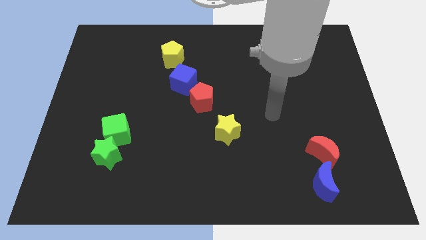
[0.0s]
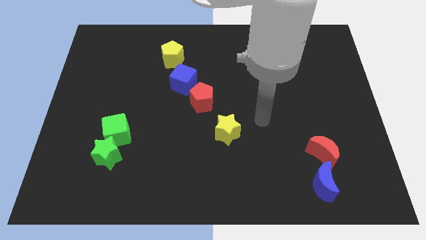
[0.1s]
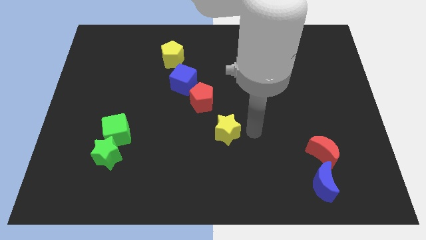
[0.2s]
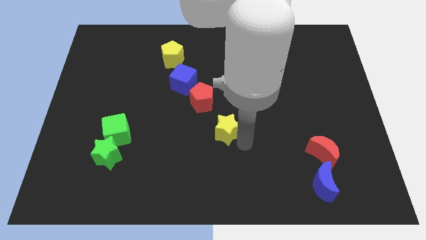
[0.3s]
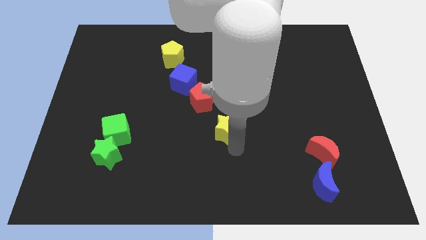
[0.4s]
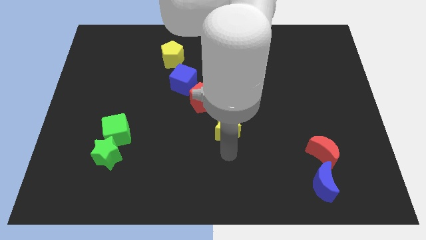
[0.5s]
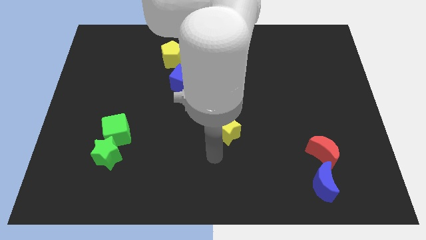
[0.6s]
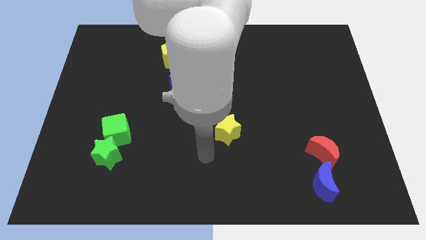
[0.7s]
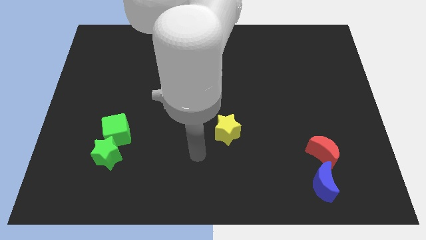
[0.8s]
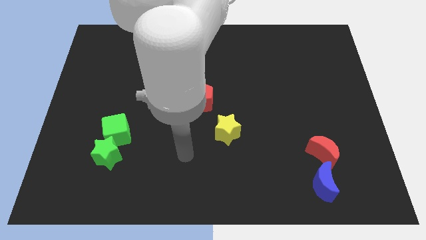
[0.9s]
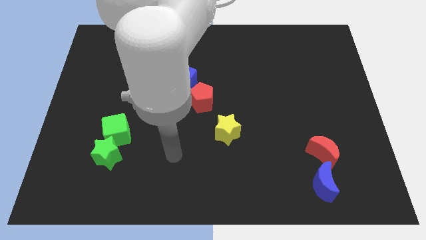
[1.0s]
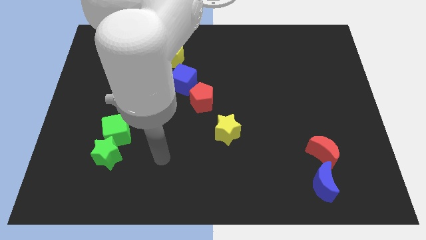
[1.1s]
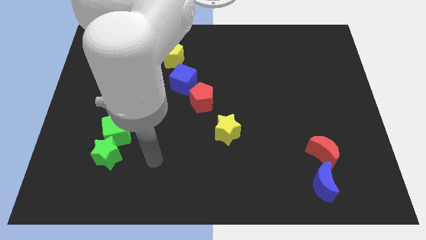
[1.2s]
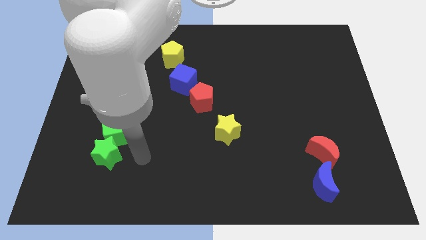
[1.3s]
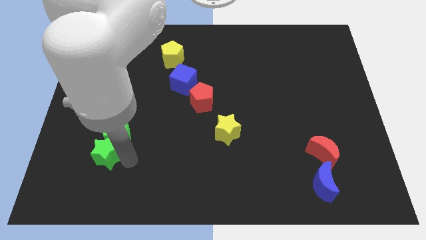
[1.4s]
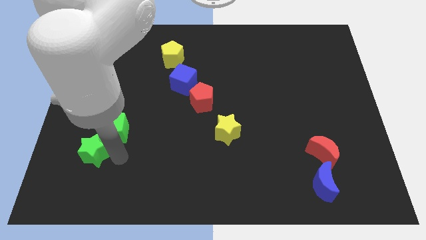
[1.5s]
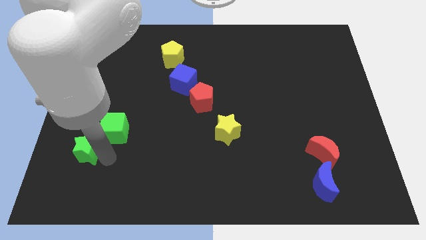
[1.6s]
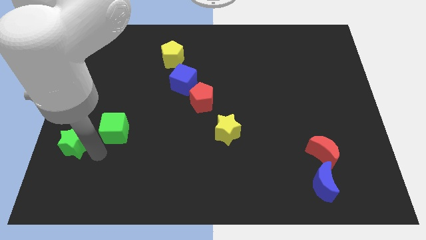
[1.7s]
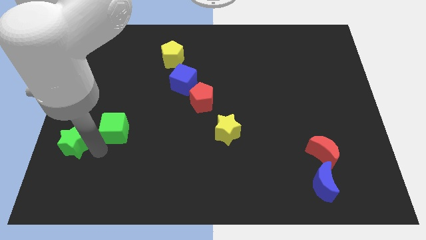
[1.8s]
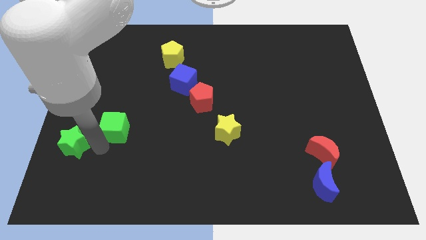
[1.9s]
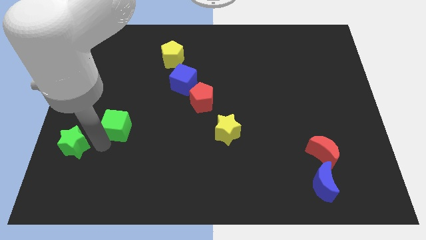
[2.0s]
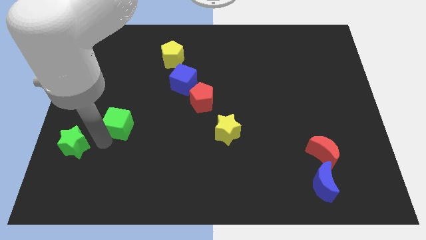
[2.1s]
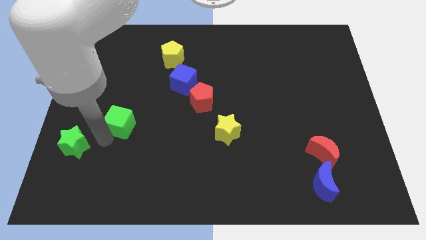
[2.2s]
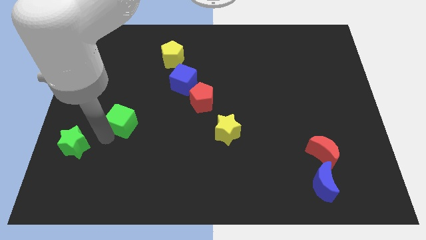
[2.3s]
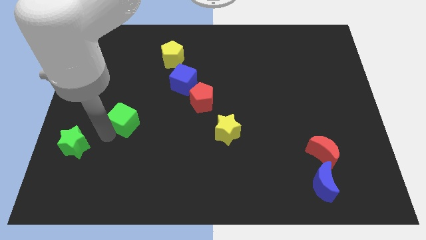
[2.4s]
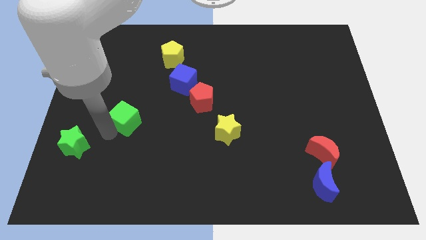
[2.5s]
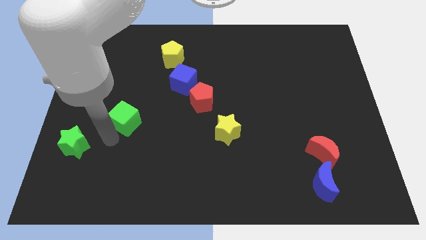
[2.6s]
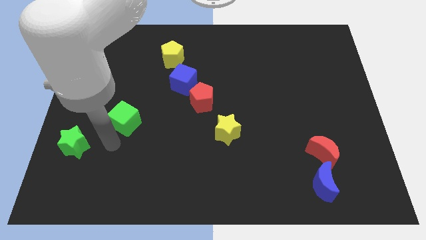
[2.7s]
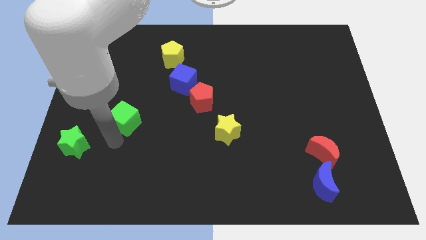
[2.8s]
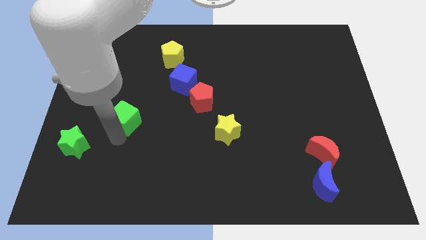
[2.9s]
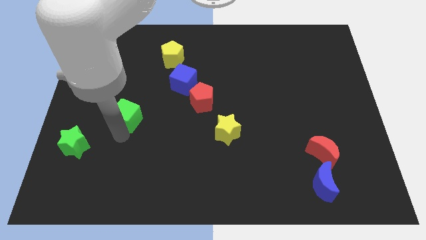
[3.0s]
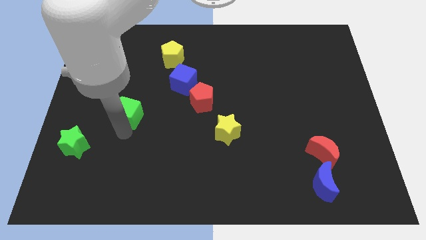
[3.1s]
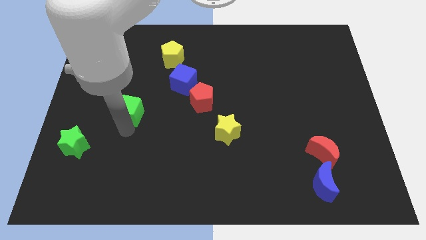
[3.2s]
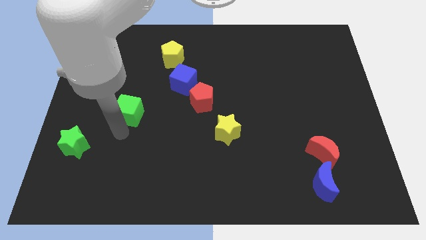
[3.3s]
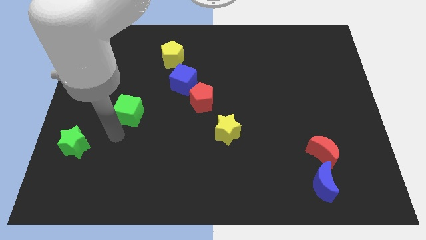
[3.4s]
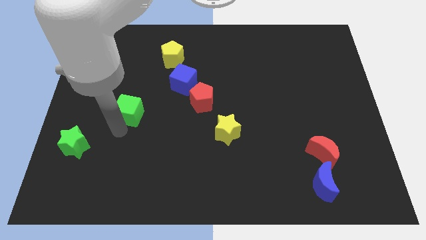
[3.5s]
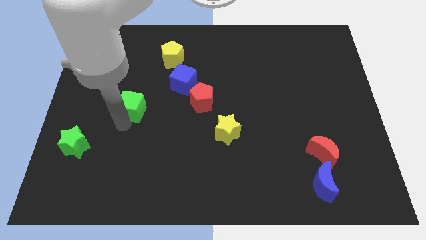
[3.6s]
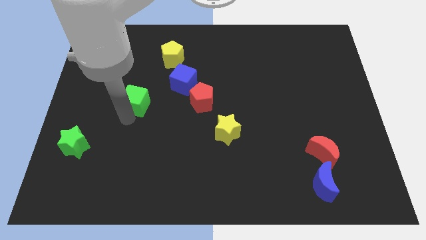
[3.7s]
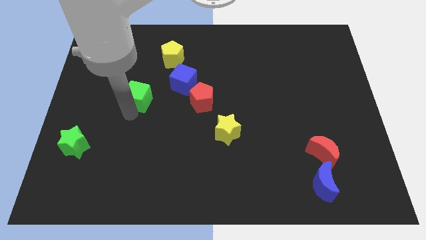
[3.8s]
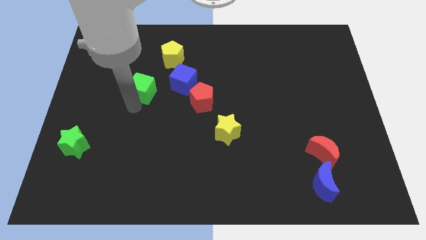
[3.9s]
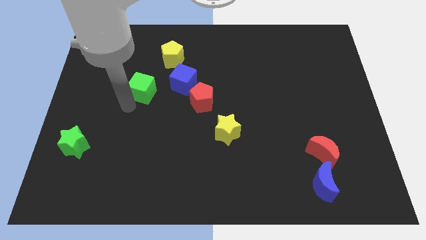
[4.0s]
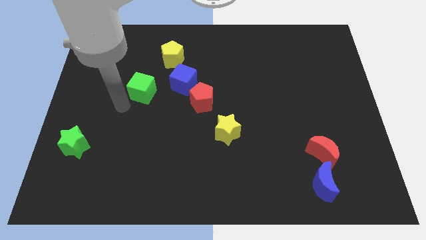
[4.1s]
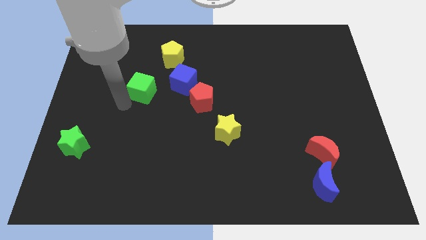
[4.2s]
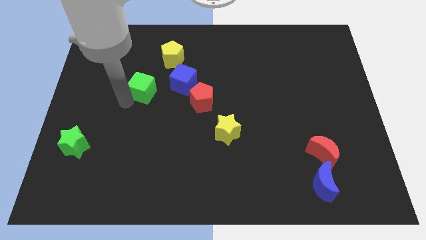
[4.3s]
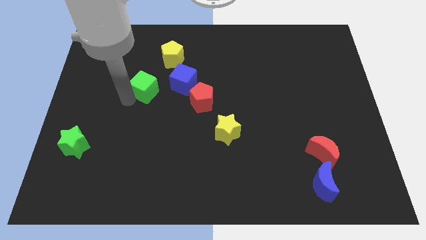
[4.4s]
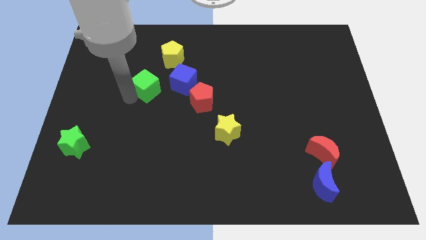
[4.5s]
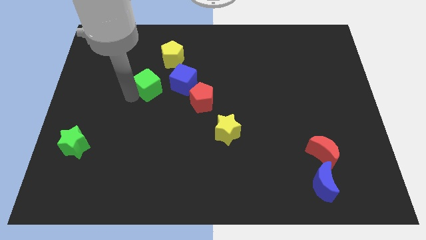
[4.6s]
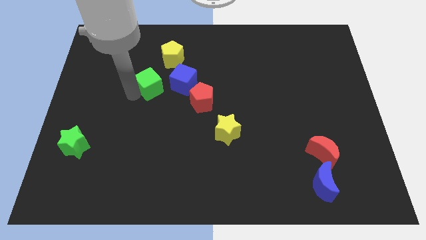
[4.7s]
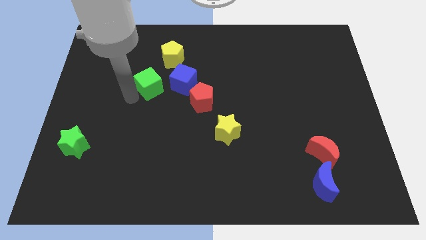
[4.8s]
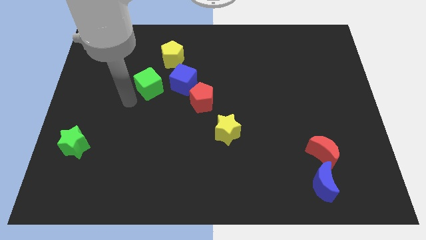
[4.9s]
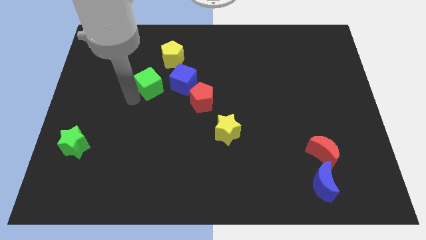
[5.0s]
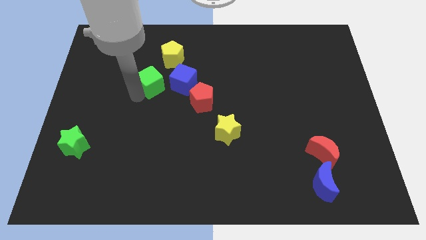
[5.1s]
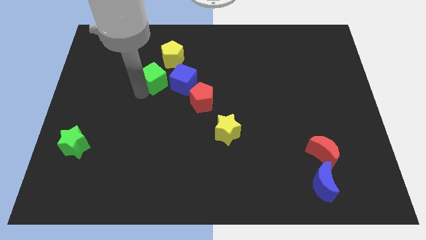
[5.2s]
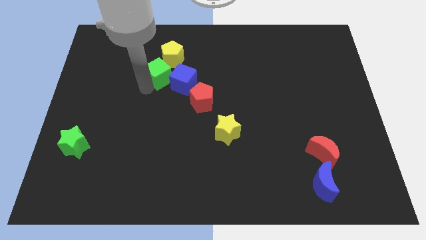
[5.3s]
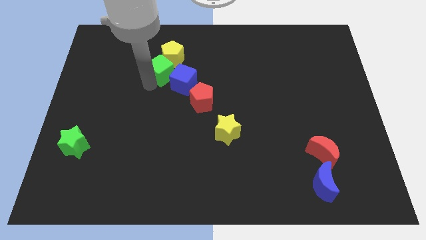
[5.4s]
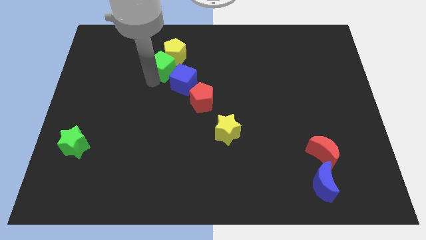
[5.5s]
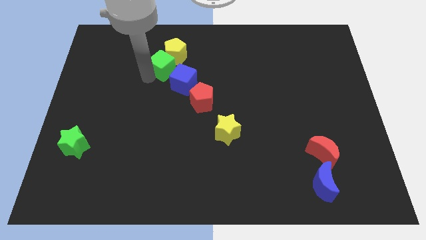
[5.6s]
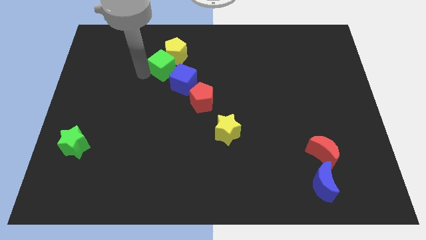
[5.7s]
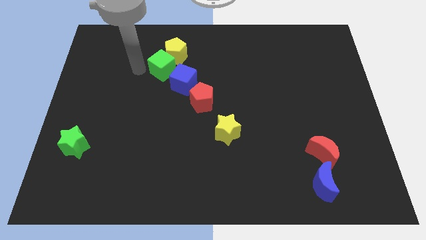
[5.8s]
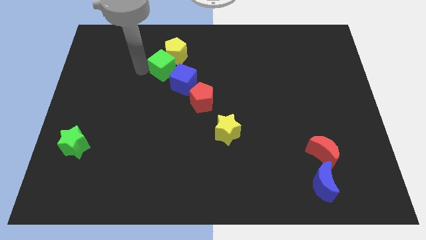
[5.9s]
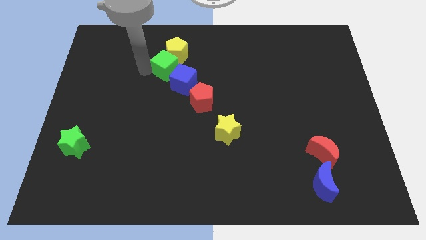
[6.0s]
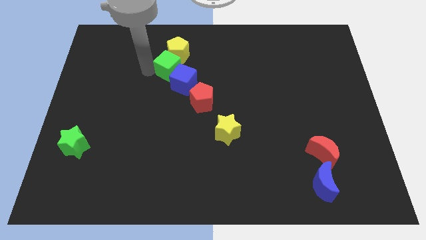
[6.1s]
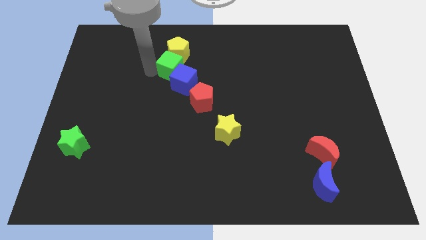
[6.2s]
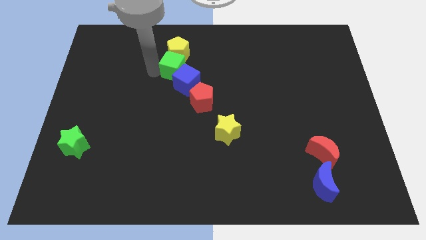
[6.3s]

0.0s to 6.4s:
push the green cube to the bottom right of the yellow pentagon
